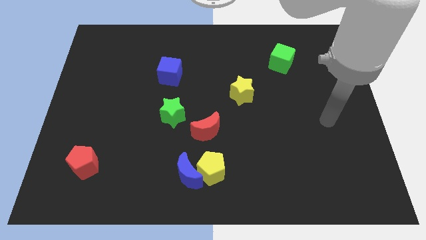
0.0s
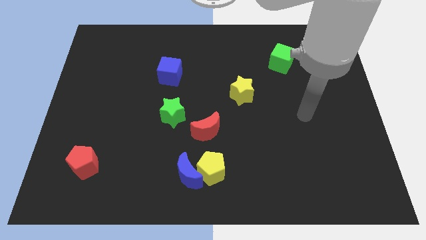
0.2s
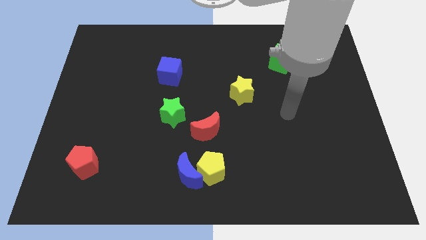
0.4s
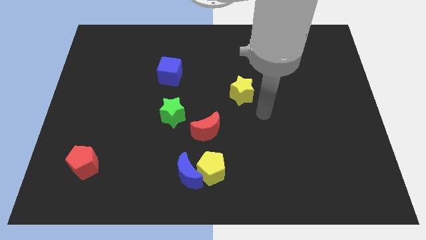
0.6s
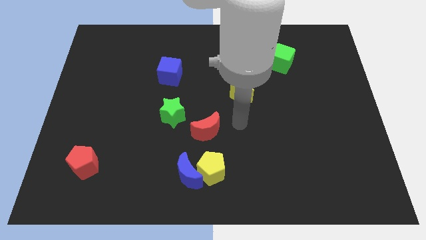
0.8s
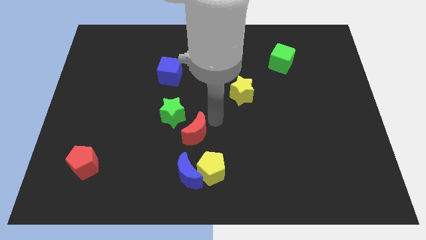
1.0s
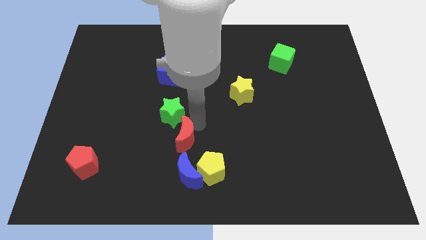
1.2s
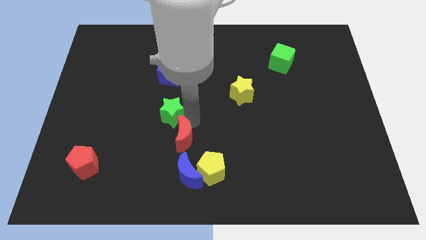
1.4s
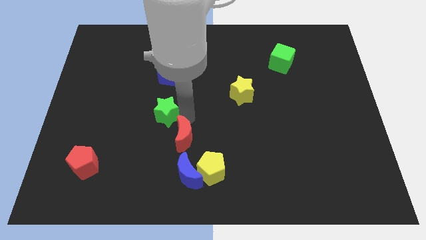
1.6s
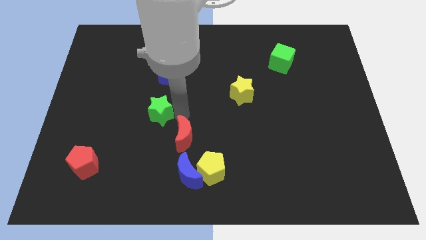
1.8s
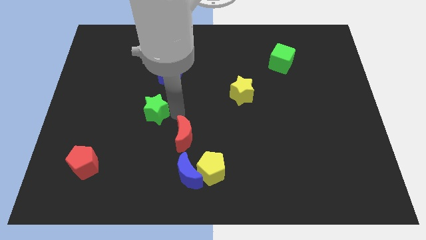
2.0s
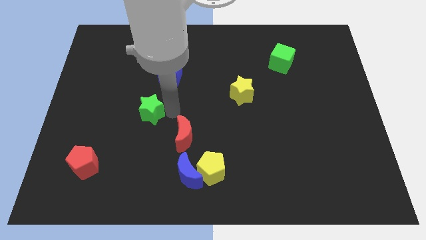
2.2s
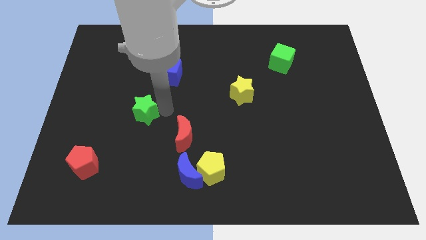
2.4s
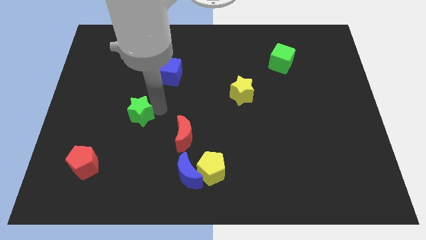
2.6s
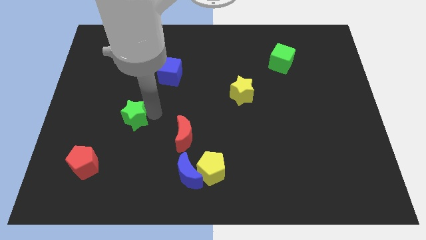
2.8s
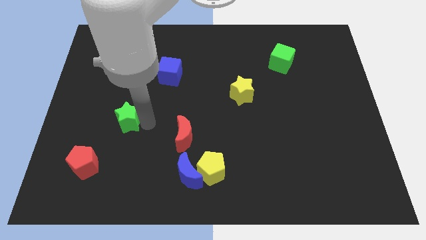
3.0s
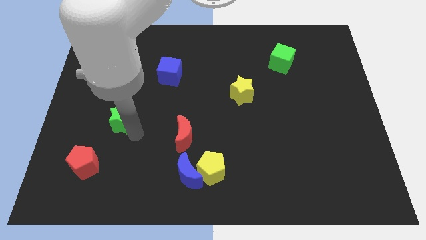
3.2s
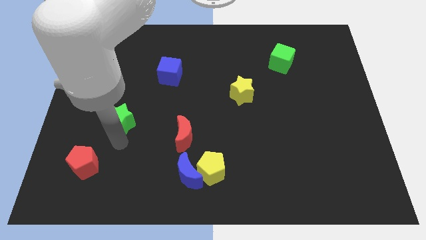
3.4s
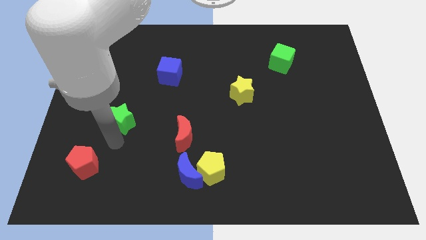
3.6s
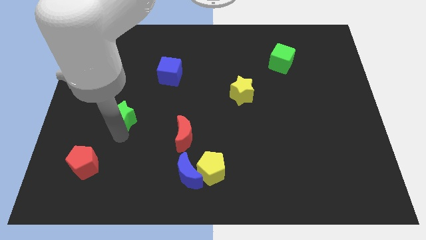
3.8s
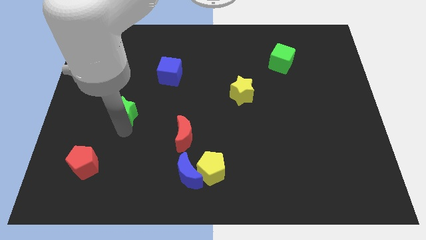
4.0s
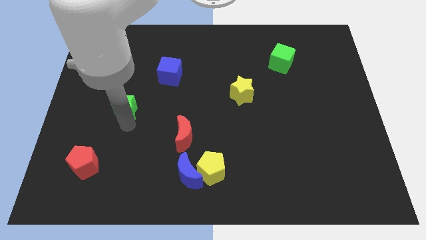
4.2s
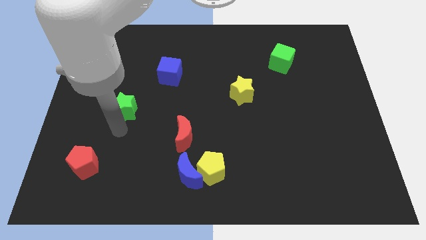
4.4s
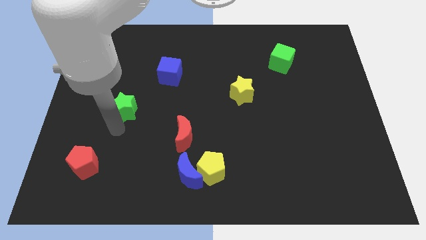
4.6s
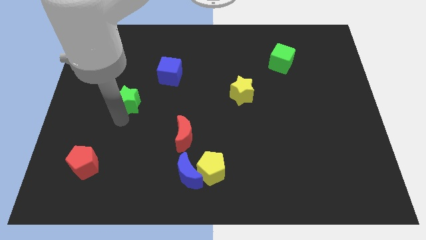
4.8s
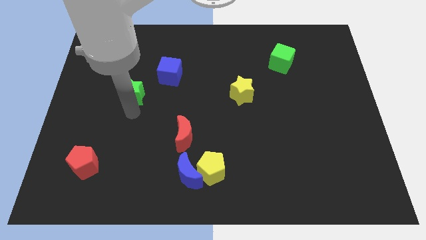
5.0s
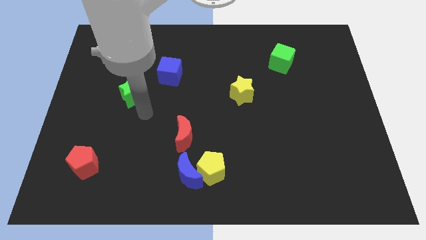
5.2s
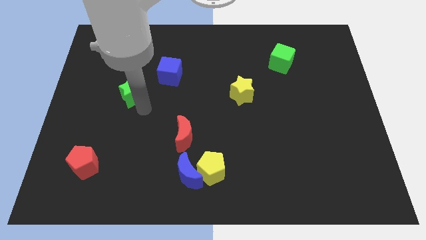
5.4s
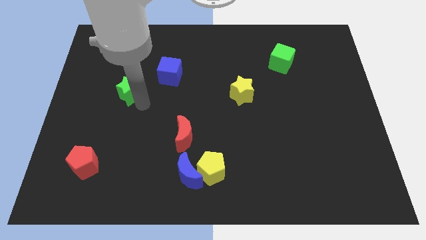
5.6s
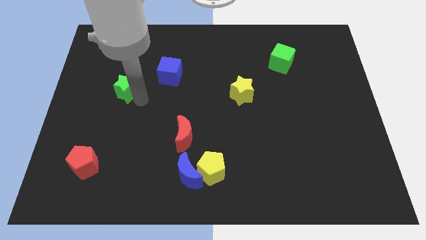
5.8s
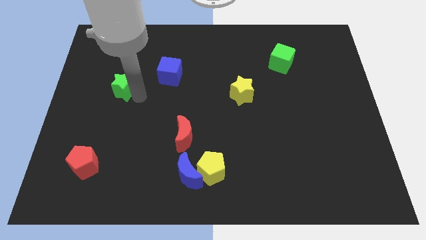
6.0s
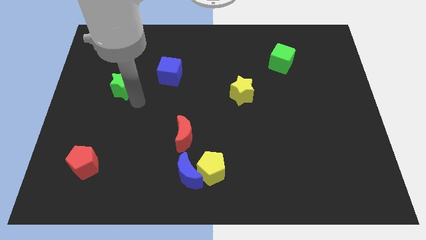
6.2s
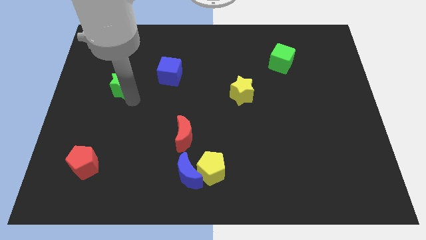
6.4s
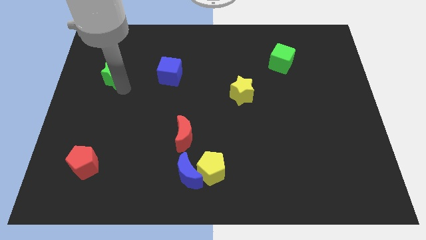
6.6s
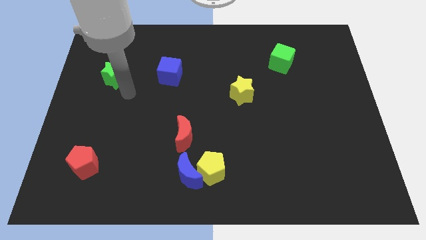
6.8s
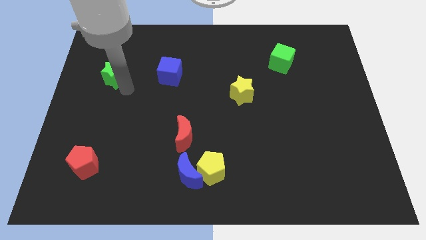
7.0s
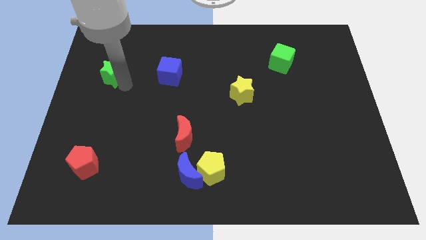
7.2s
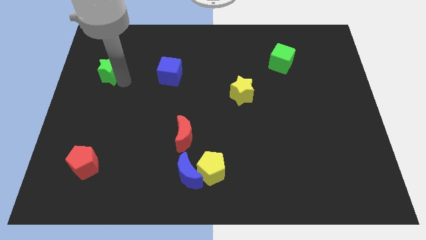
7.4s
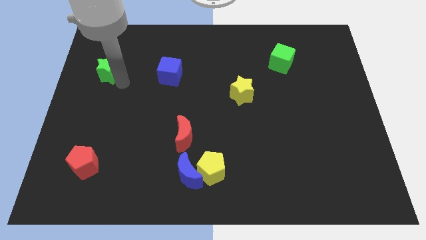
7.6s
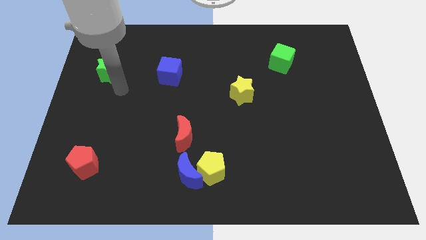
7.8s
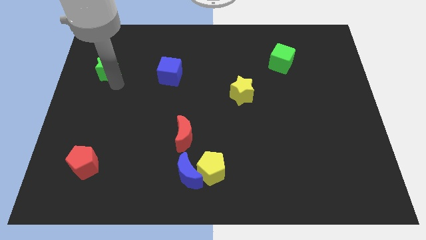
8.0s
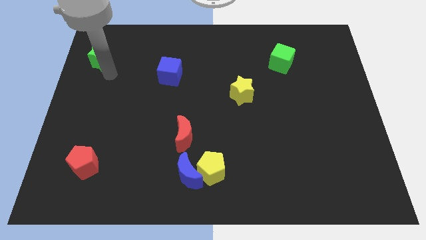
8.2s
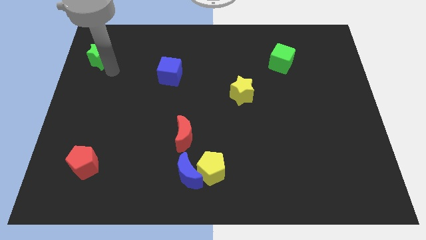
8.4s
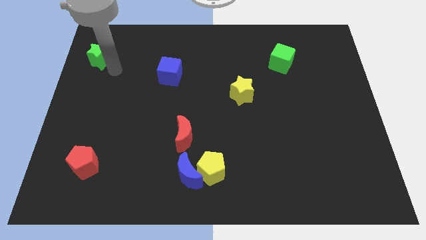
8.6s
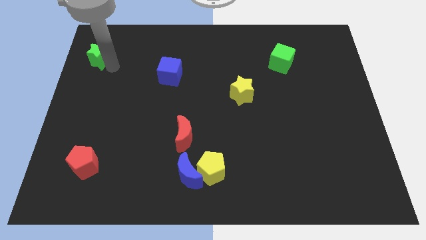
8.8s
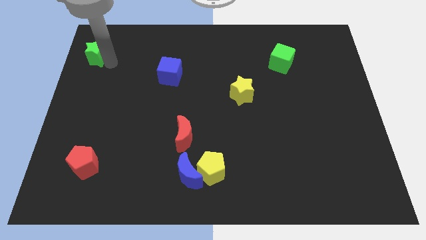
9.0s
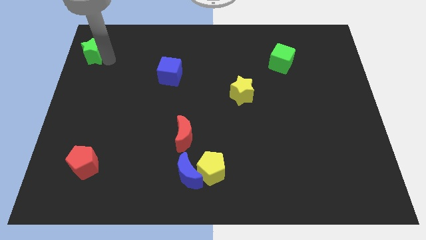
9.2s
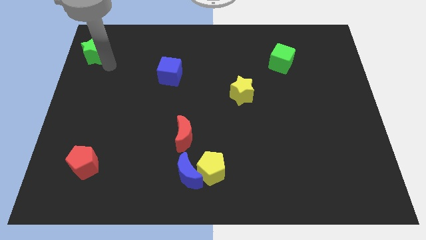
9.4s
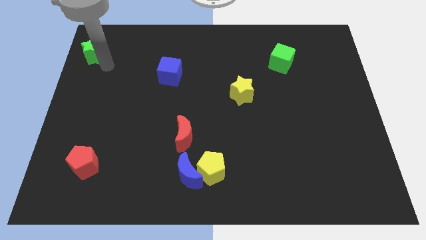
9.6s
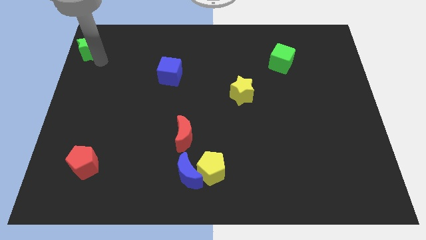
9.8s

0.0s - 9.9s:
put the green star to the top left of the board

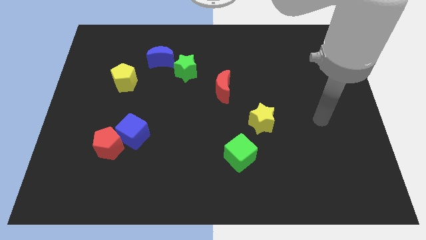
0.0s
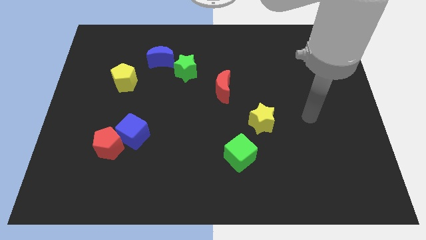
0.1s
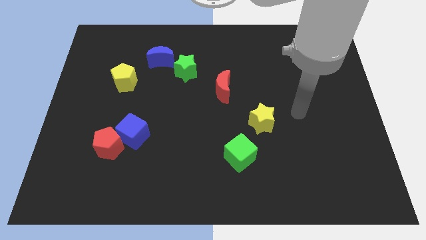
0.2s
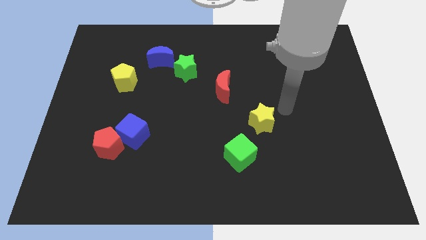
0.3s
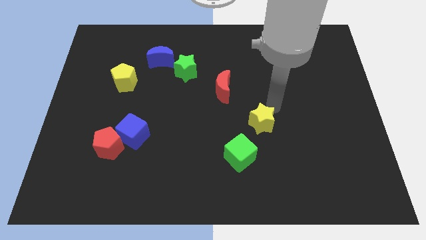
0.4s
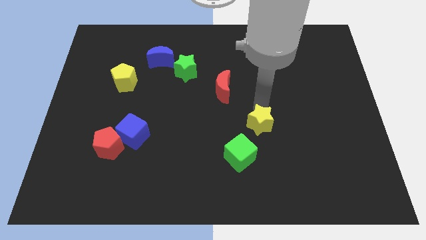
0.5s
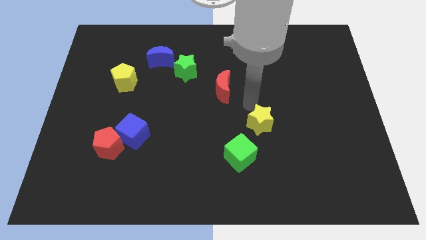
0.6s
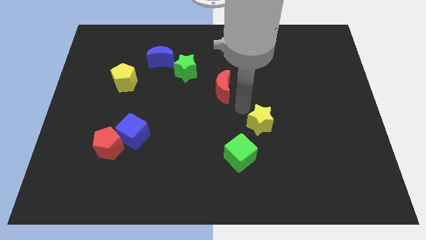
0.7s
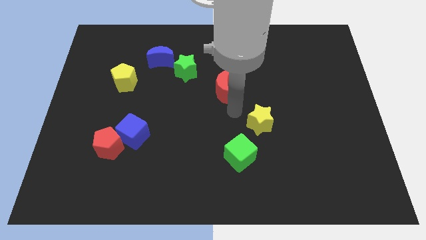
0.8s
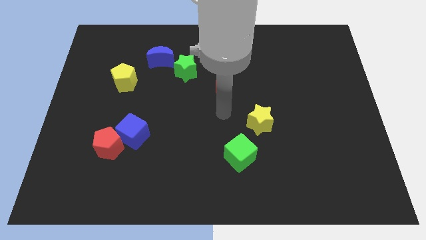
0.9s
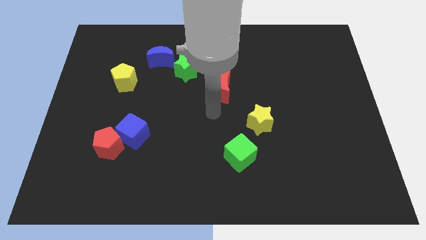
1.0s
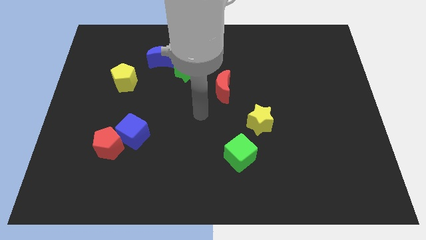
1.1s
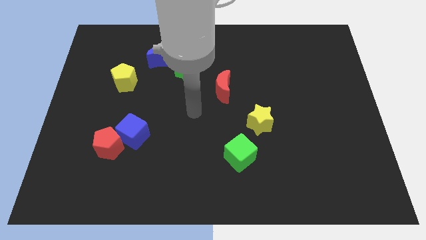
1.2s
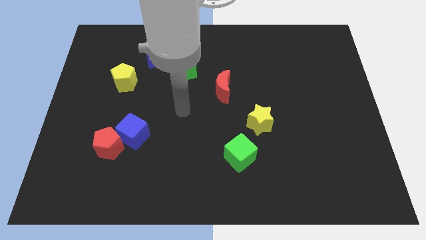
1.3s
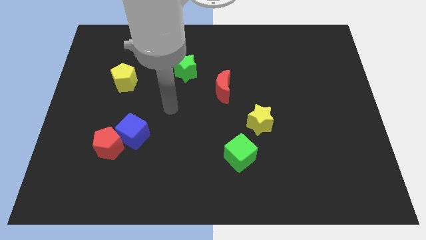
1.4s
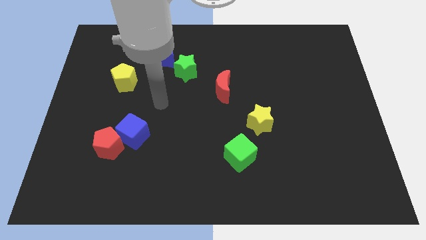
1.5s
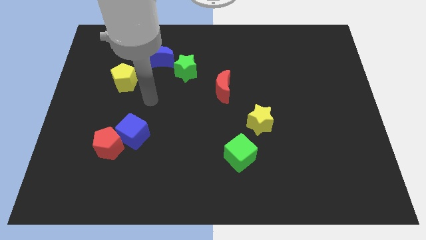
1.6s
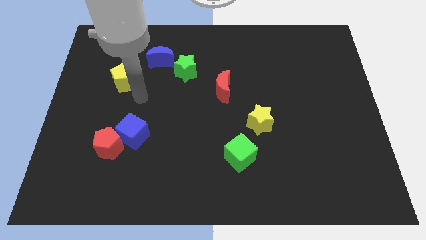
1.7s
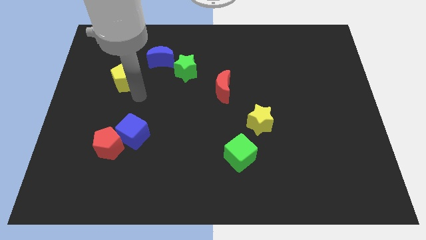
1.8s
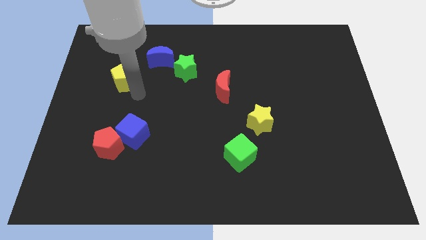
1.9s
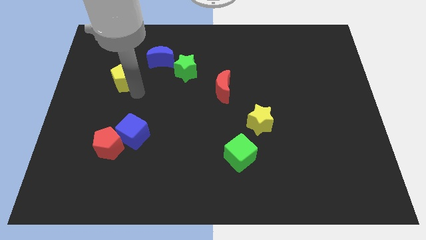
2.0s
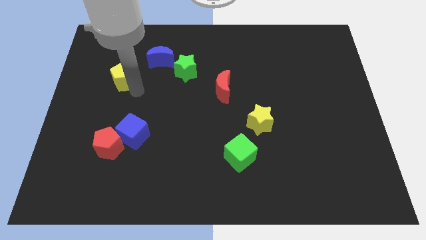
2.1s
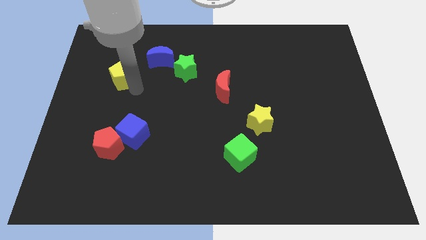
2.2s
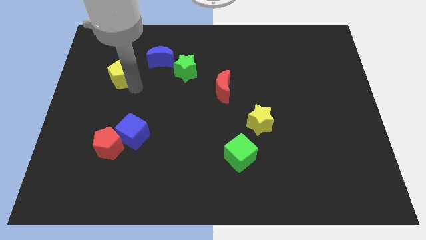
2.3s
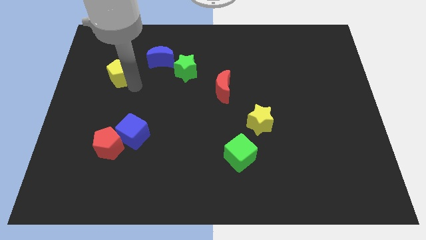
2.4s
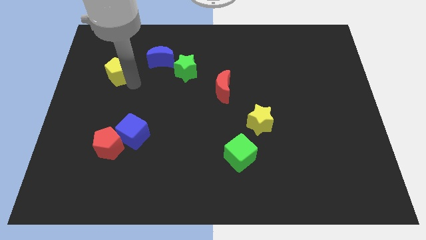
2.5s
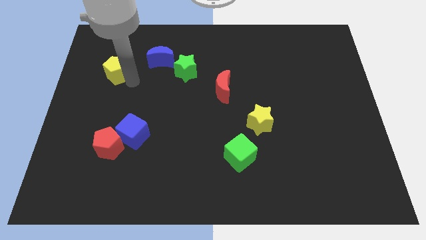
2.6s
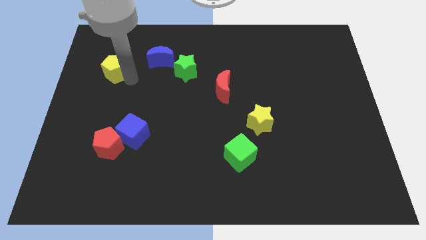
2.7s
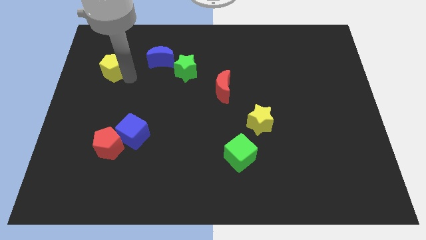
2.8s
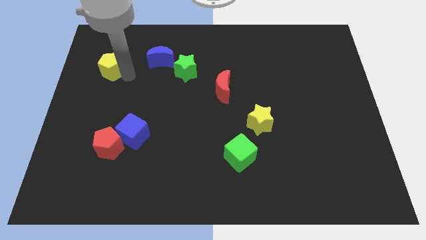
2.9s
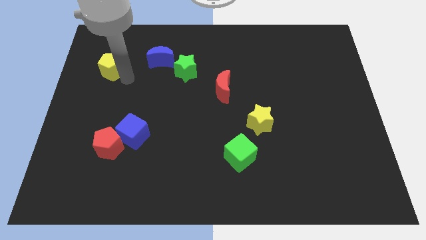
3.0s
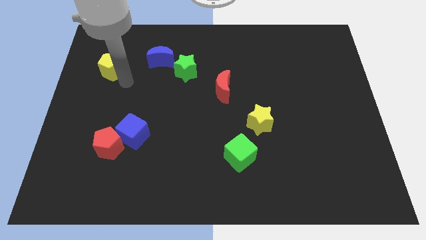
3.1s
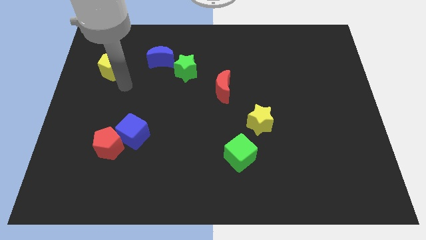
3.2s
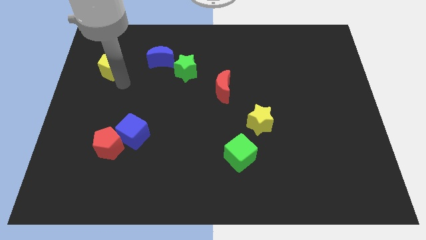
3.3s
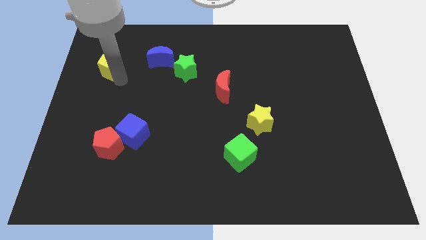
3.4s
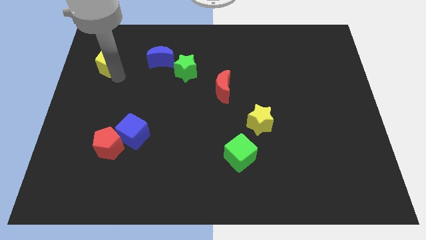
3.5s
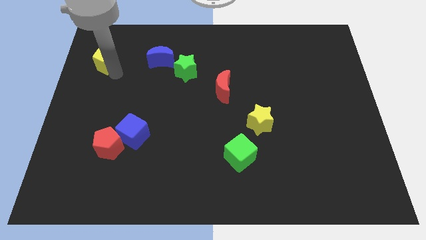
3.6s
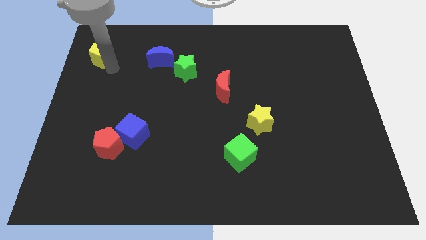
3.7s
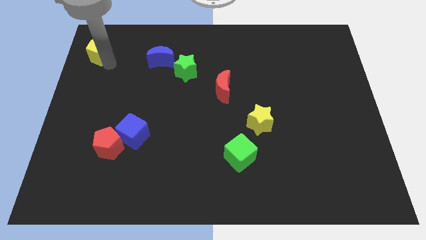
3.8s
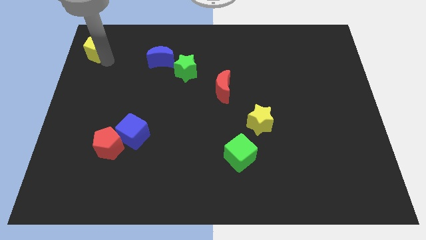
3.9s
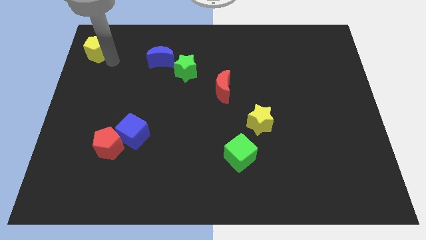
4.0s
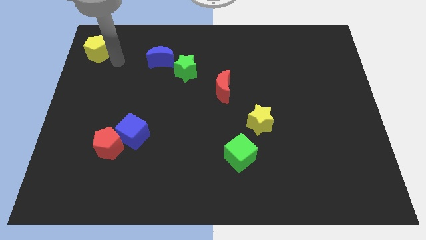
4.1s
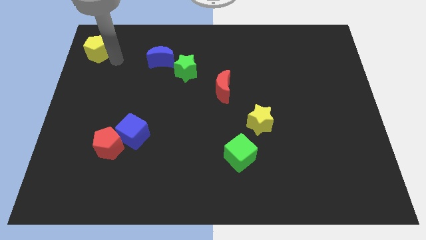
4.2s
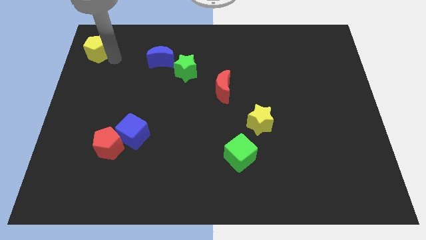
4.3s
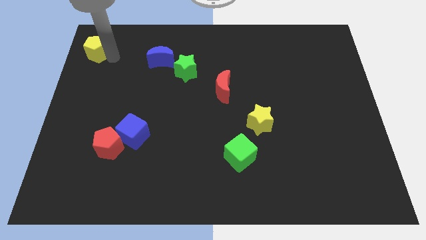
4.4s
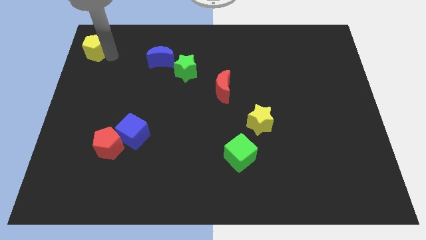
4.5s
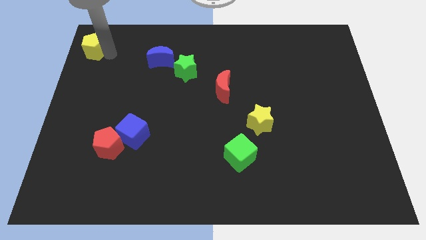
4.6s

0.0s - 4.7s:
slide the yellow pentagon to the top left corner
